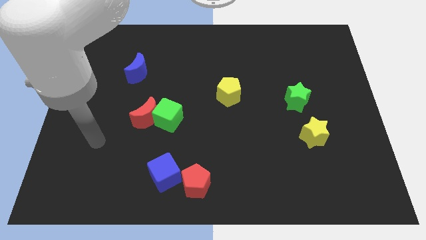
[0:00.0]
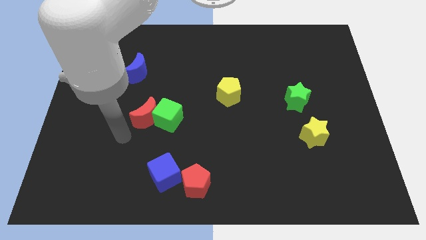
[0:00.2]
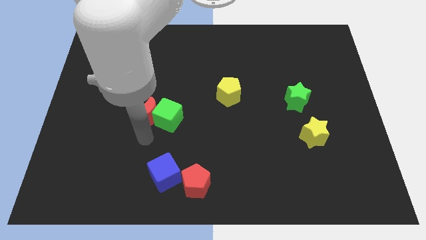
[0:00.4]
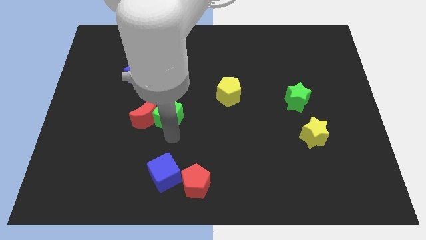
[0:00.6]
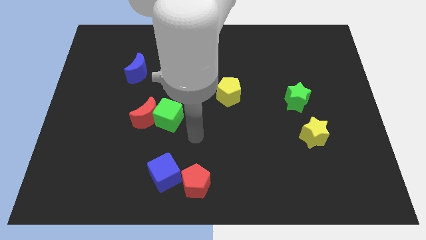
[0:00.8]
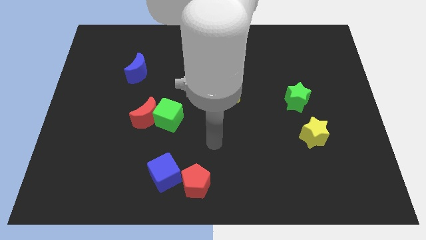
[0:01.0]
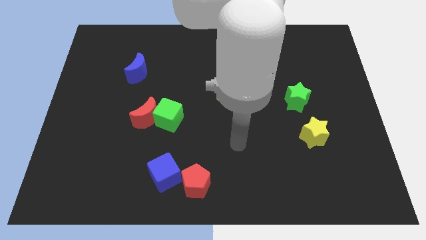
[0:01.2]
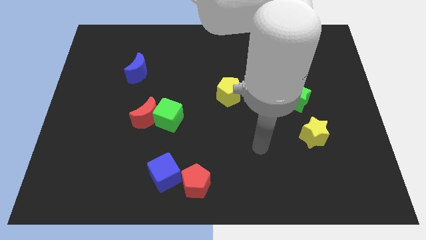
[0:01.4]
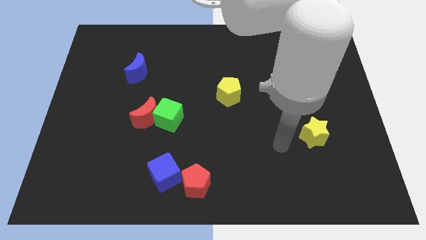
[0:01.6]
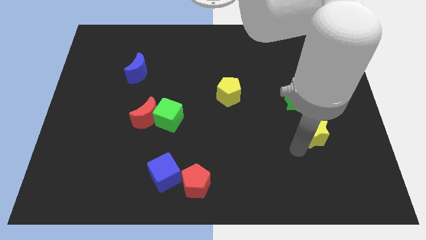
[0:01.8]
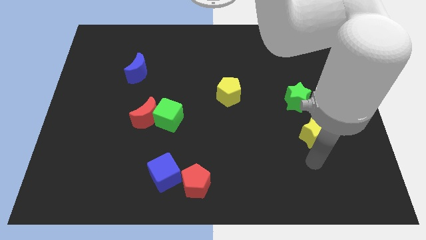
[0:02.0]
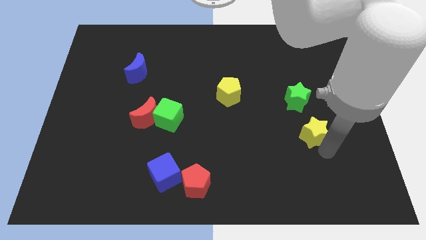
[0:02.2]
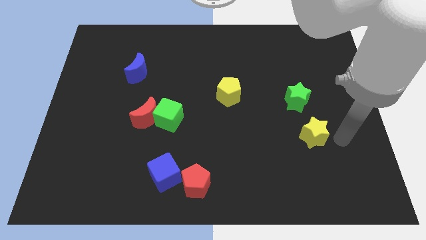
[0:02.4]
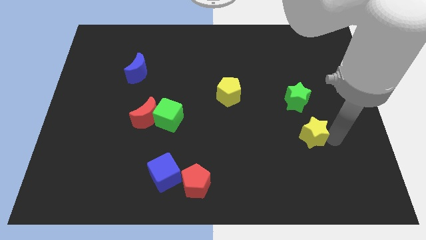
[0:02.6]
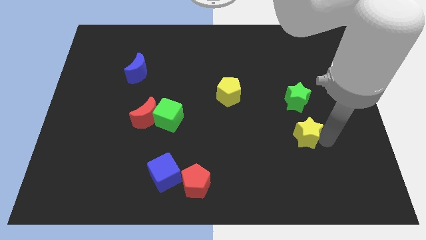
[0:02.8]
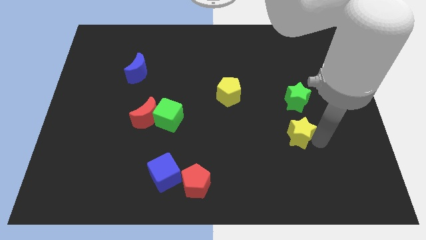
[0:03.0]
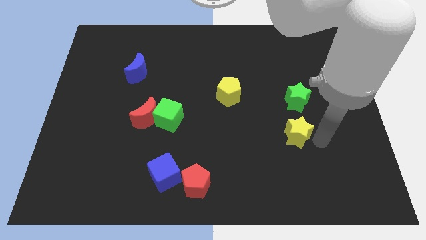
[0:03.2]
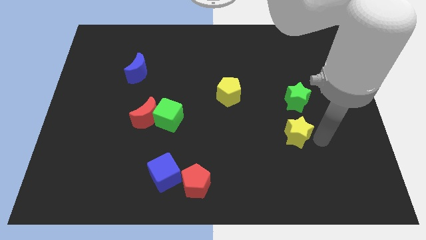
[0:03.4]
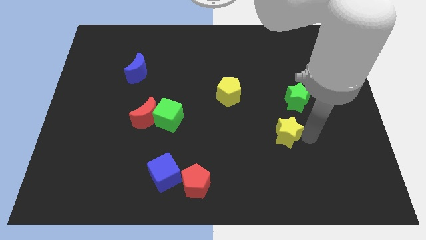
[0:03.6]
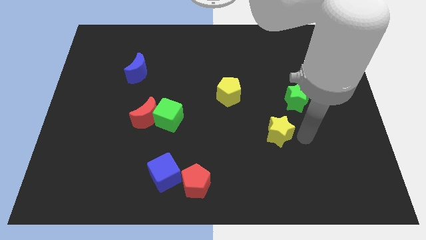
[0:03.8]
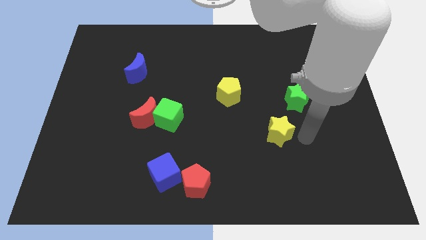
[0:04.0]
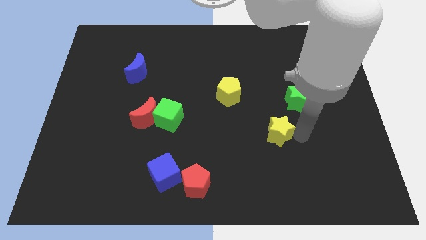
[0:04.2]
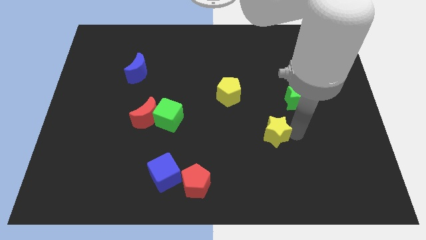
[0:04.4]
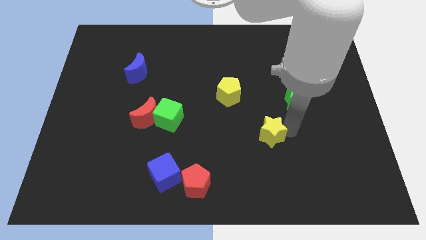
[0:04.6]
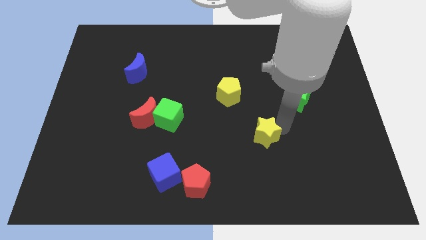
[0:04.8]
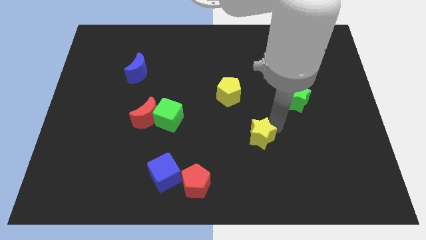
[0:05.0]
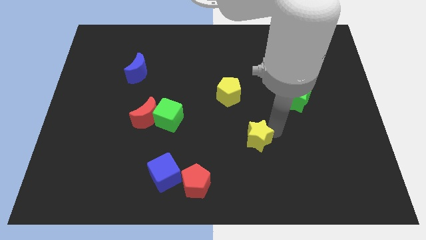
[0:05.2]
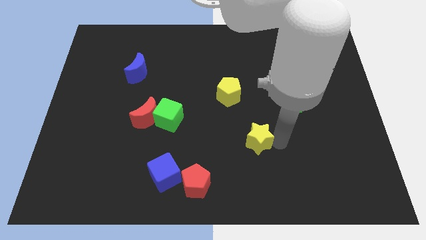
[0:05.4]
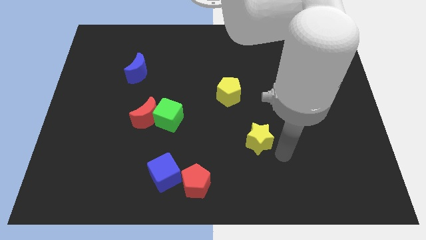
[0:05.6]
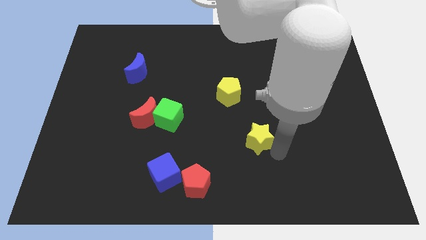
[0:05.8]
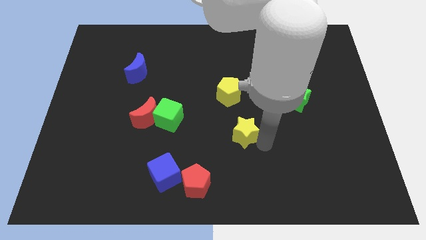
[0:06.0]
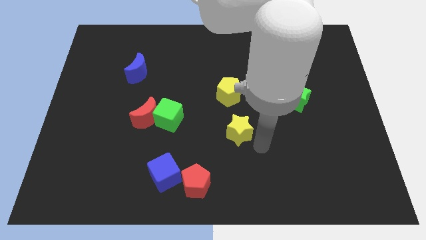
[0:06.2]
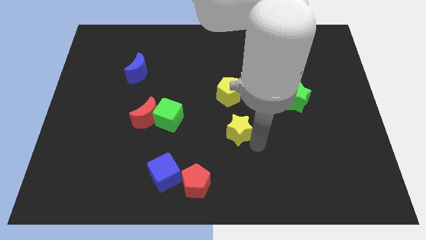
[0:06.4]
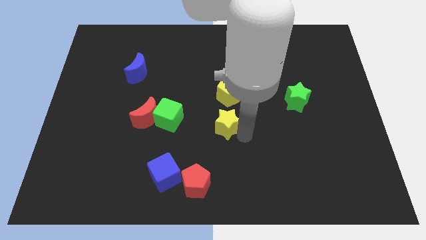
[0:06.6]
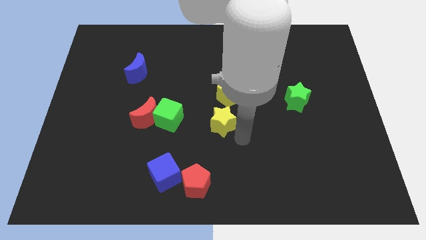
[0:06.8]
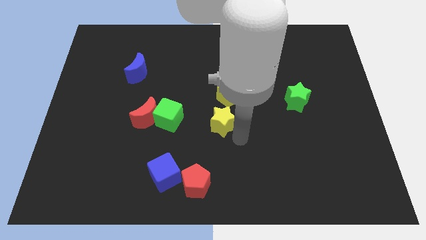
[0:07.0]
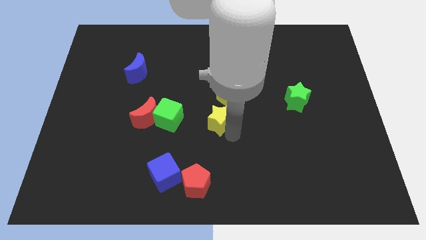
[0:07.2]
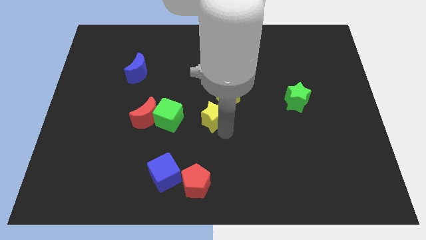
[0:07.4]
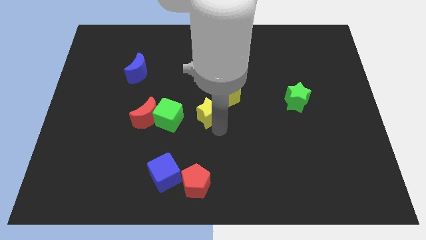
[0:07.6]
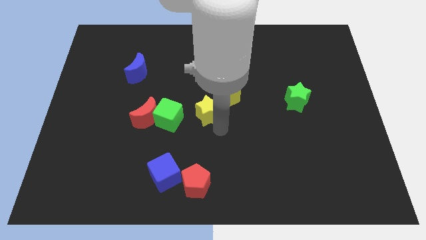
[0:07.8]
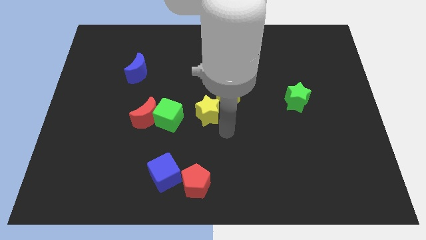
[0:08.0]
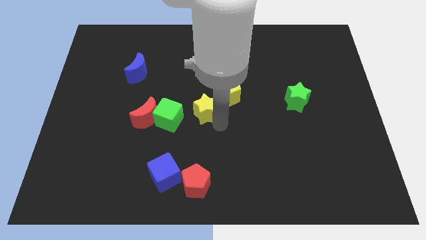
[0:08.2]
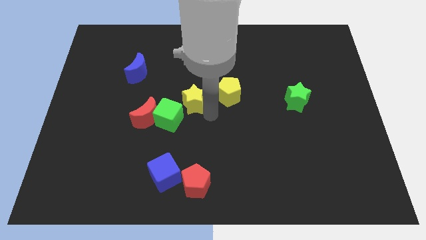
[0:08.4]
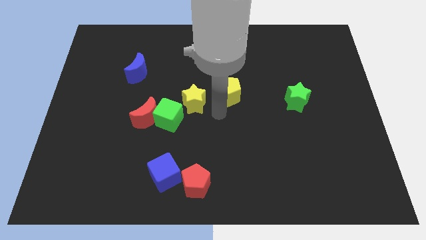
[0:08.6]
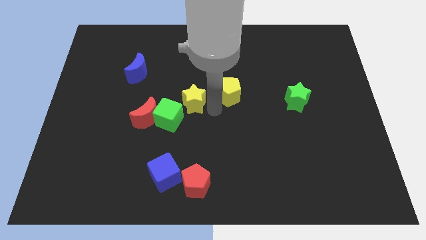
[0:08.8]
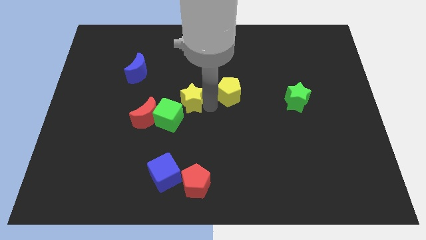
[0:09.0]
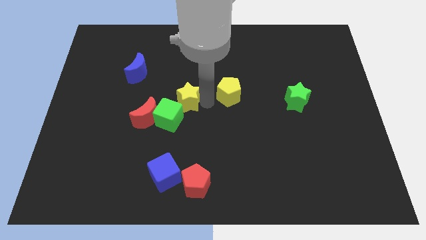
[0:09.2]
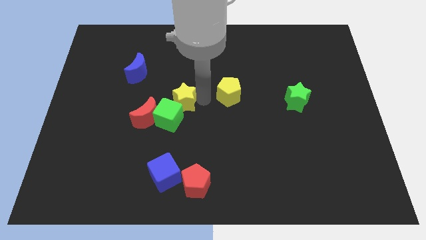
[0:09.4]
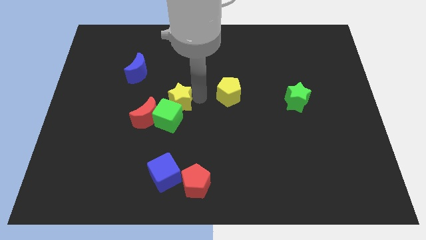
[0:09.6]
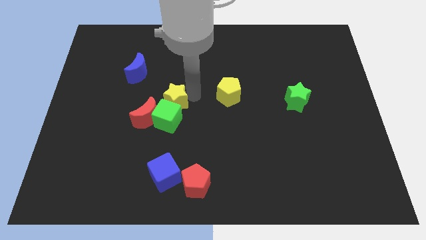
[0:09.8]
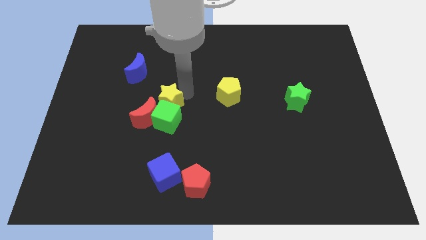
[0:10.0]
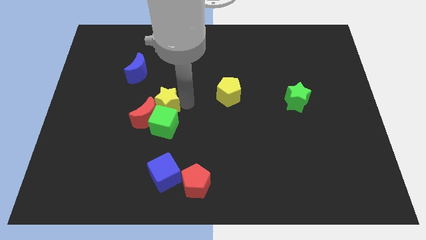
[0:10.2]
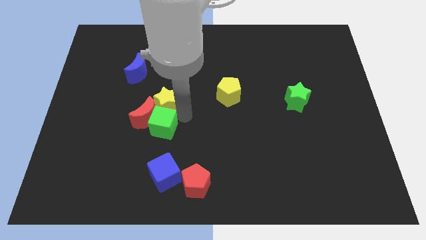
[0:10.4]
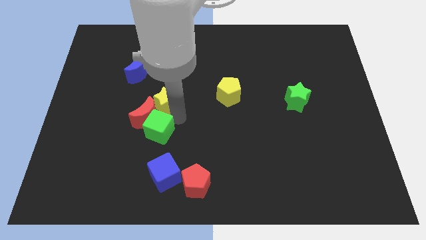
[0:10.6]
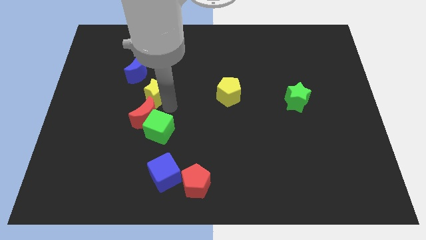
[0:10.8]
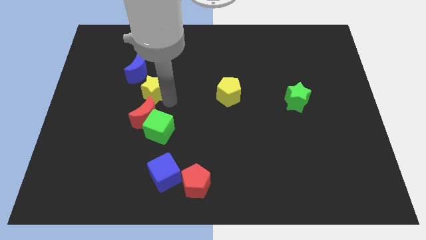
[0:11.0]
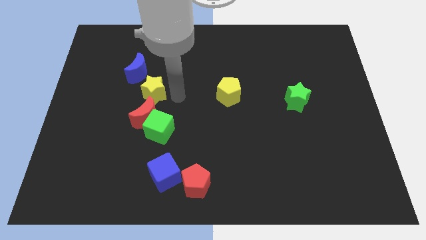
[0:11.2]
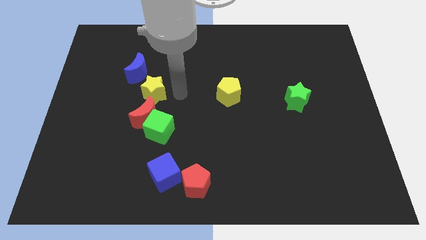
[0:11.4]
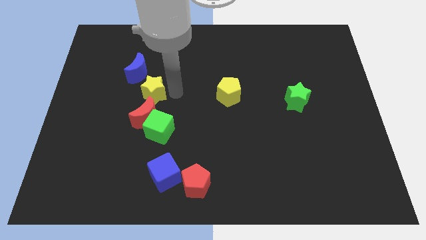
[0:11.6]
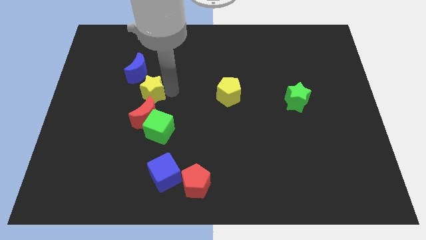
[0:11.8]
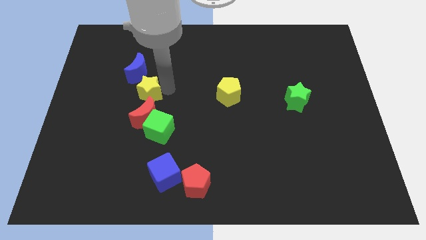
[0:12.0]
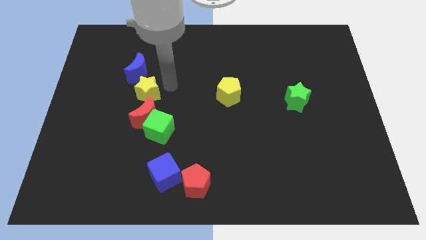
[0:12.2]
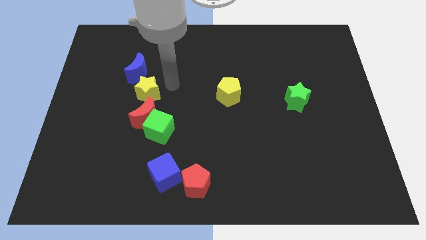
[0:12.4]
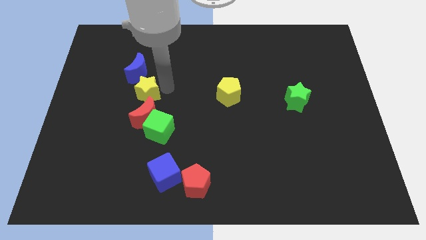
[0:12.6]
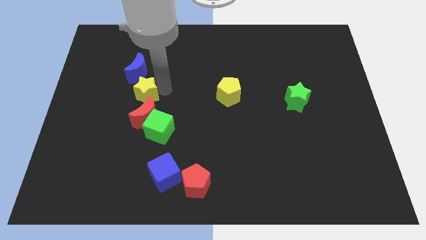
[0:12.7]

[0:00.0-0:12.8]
slide the yellow star diagonally up and to the left of the red moon
